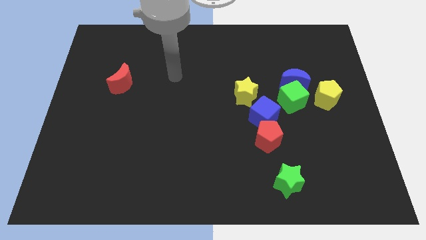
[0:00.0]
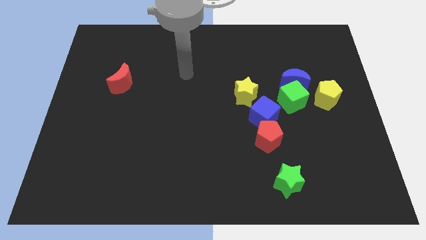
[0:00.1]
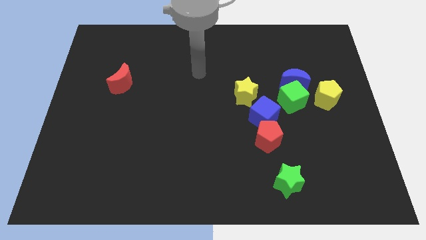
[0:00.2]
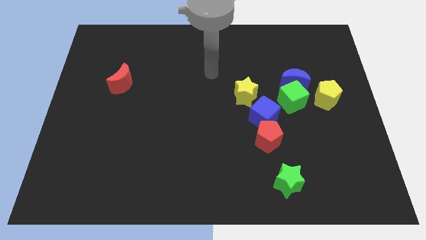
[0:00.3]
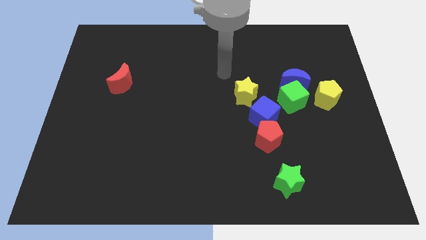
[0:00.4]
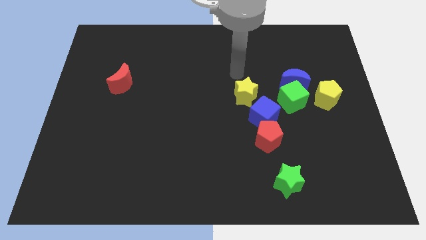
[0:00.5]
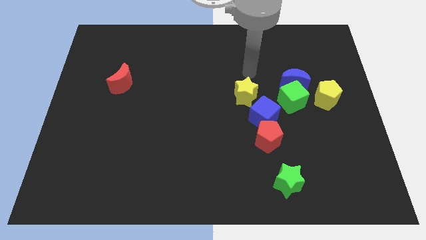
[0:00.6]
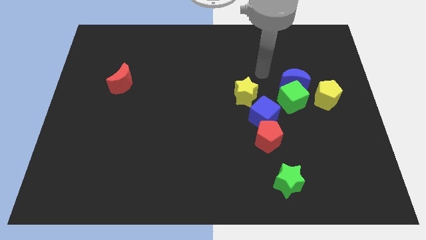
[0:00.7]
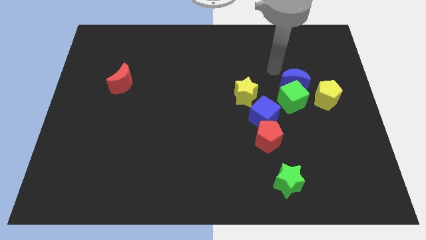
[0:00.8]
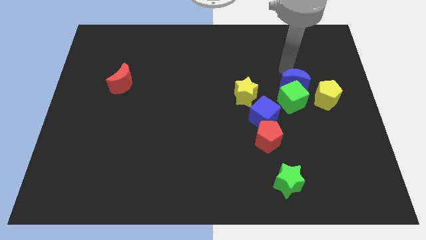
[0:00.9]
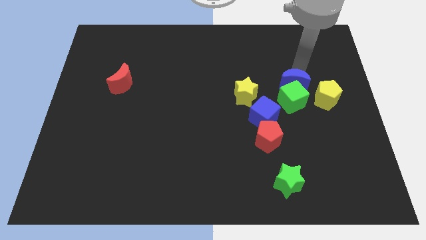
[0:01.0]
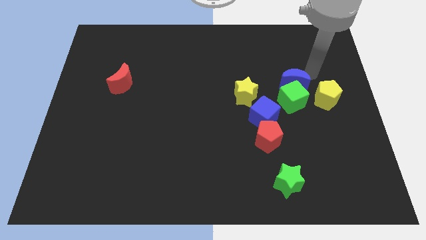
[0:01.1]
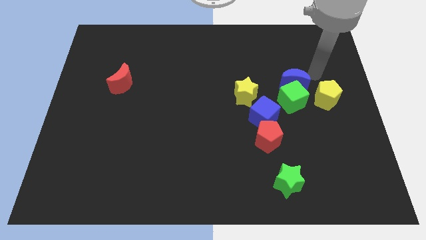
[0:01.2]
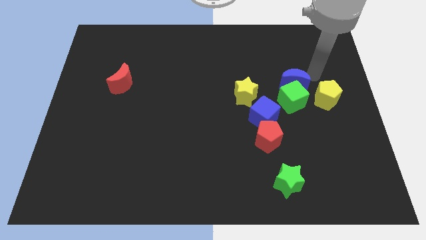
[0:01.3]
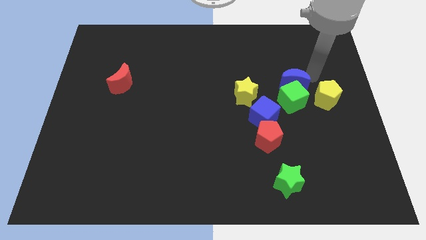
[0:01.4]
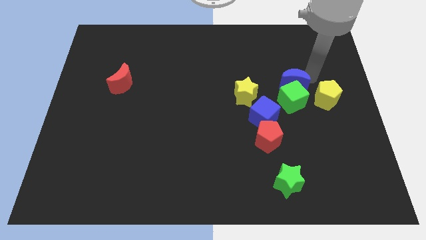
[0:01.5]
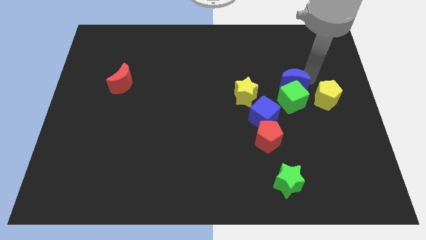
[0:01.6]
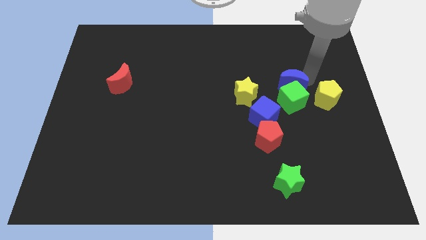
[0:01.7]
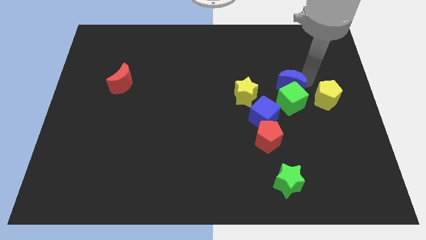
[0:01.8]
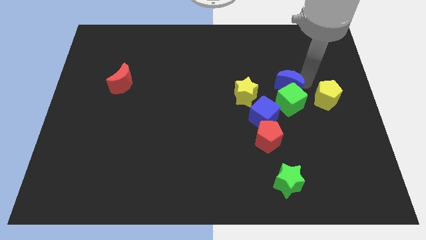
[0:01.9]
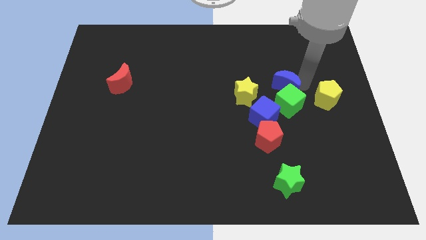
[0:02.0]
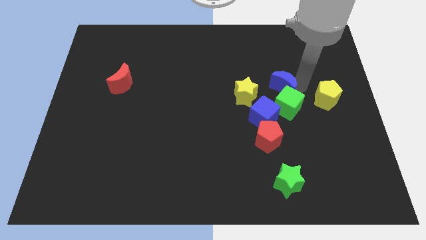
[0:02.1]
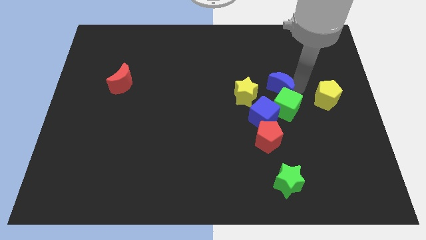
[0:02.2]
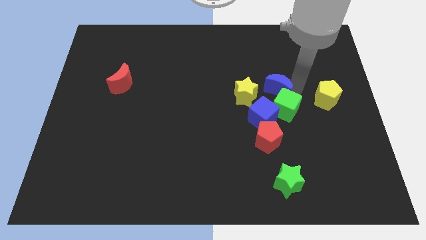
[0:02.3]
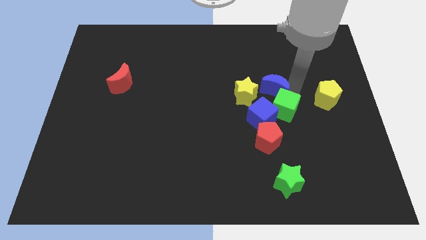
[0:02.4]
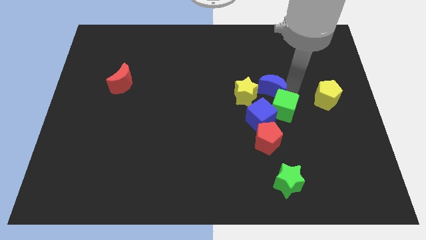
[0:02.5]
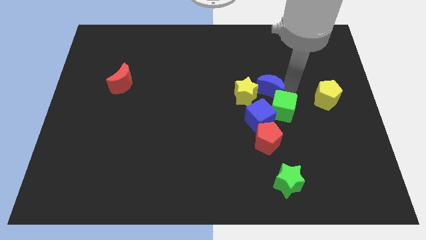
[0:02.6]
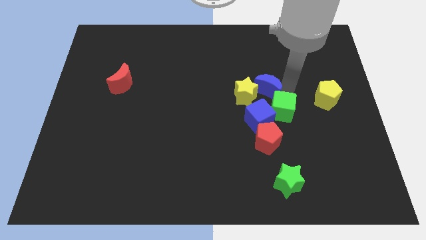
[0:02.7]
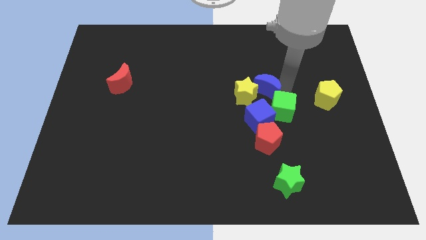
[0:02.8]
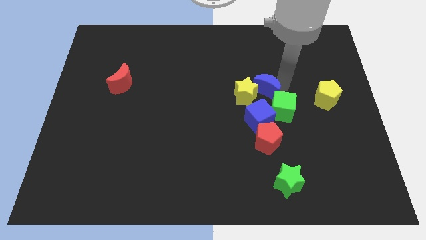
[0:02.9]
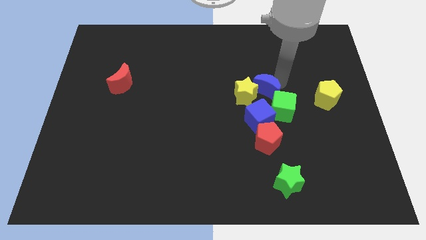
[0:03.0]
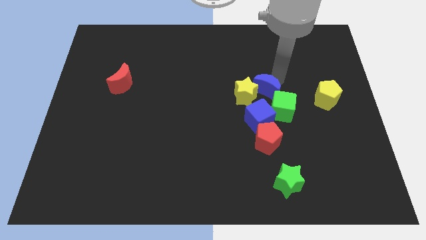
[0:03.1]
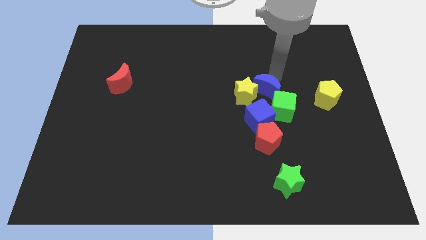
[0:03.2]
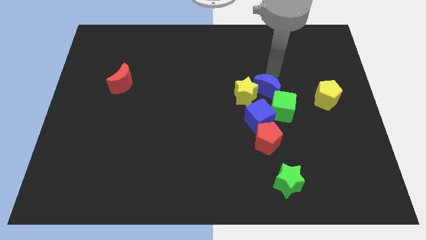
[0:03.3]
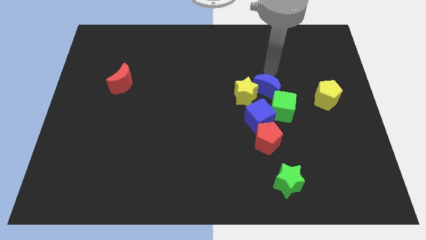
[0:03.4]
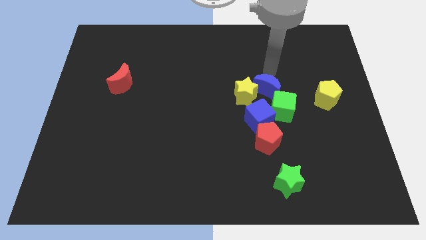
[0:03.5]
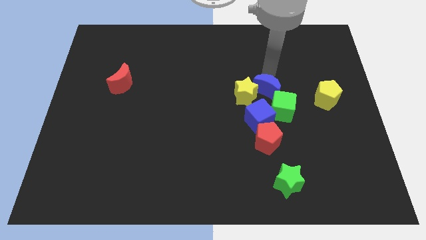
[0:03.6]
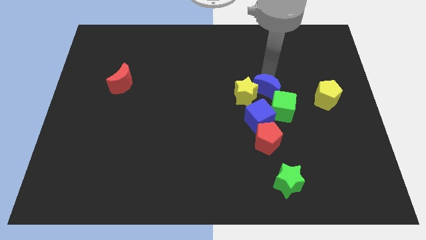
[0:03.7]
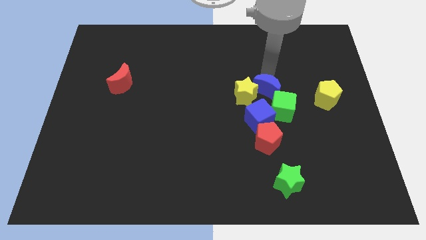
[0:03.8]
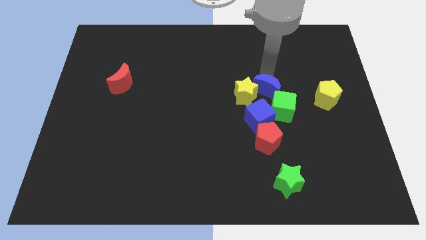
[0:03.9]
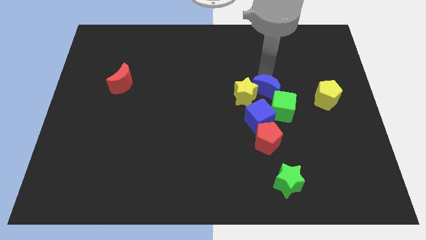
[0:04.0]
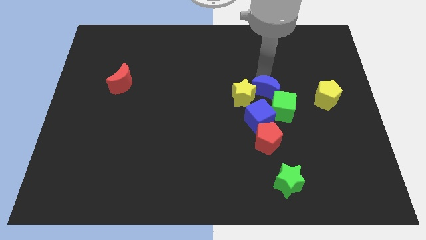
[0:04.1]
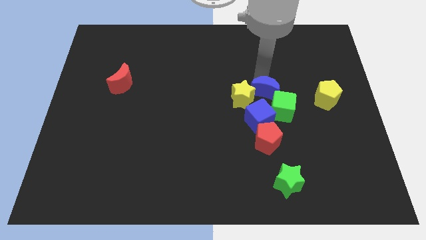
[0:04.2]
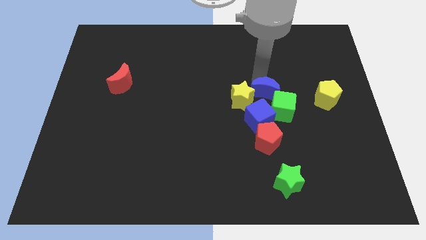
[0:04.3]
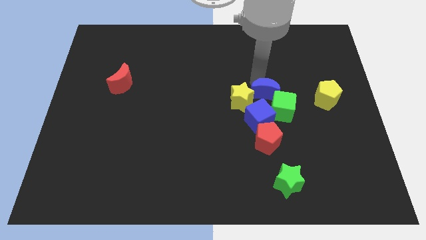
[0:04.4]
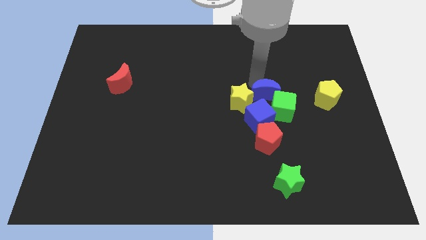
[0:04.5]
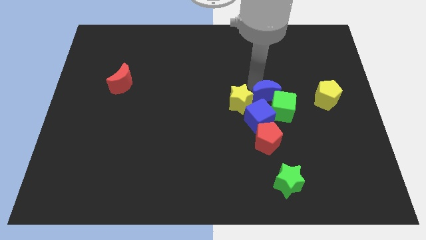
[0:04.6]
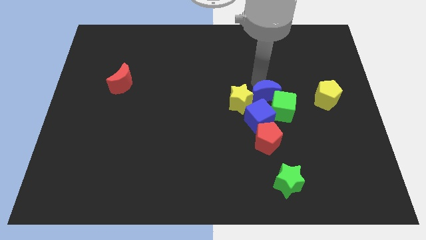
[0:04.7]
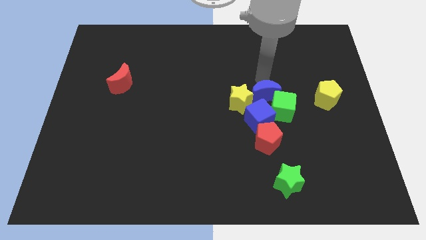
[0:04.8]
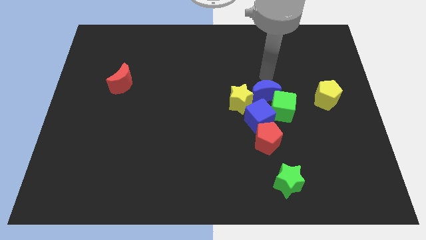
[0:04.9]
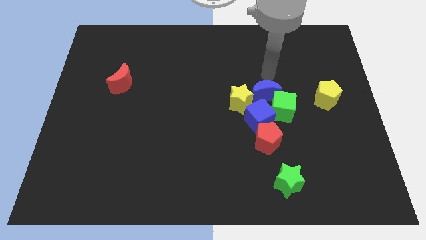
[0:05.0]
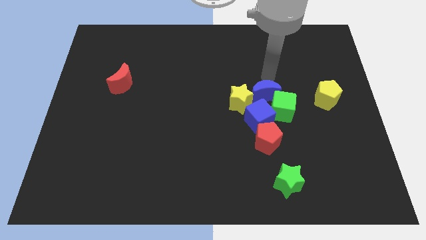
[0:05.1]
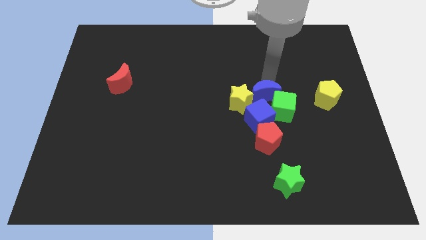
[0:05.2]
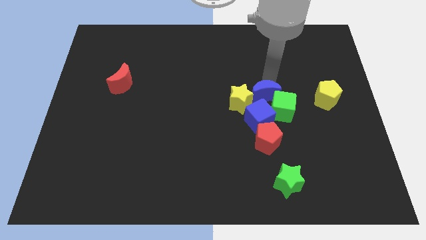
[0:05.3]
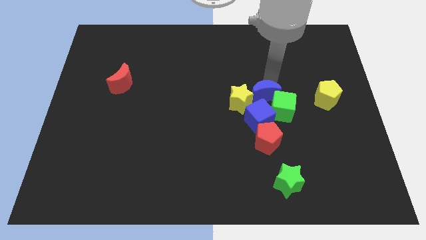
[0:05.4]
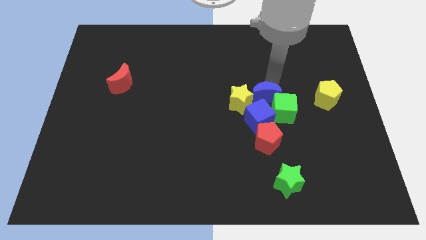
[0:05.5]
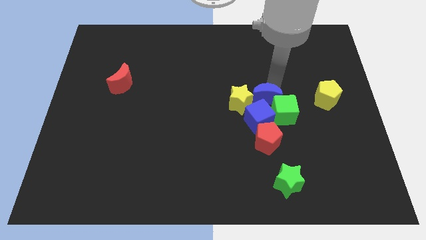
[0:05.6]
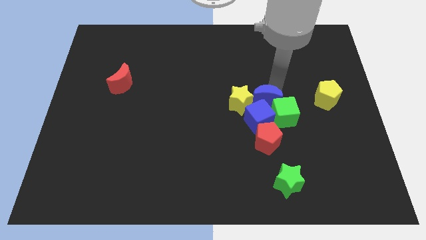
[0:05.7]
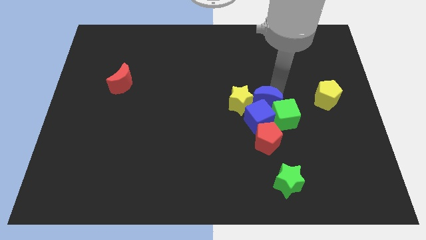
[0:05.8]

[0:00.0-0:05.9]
move the blue moon towards the blue cube

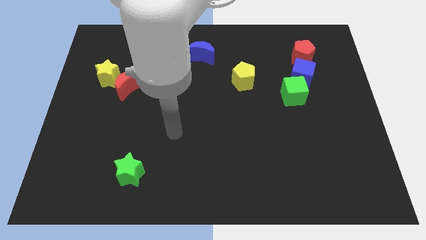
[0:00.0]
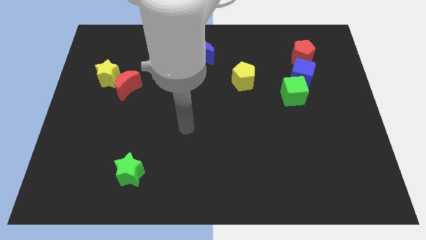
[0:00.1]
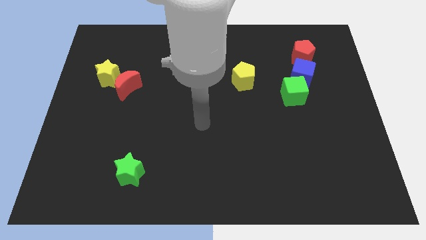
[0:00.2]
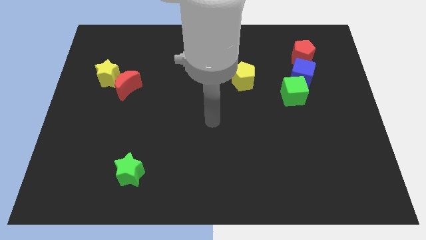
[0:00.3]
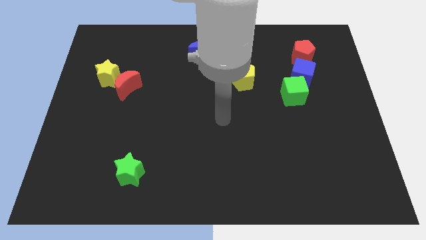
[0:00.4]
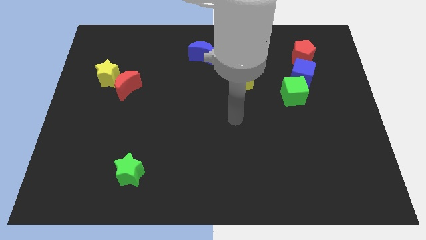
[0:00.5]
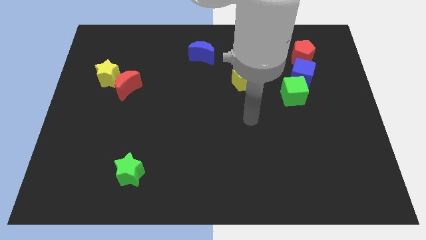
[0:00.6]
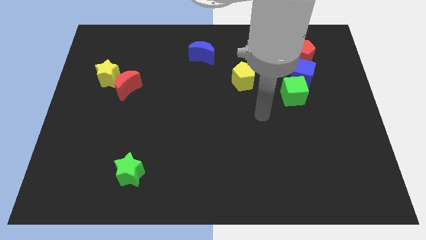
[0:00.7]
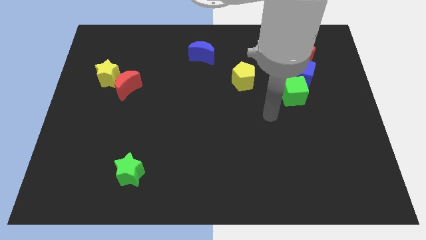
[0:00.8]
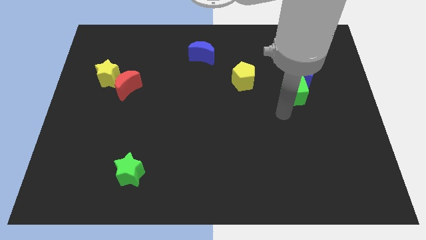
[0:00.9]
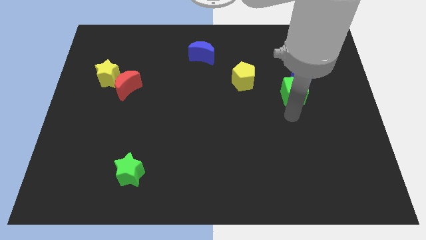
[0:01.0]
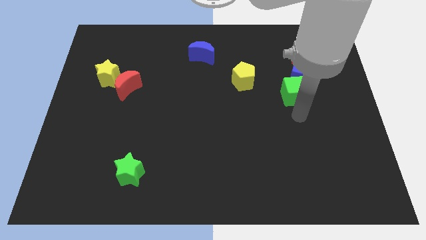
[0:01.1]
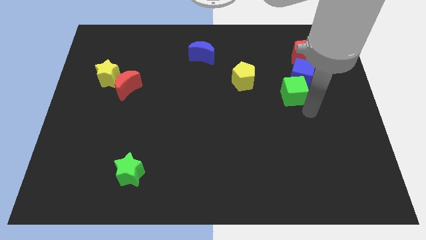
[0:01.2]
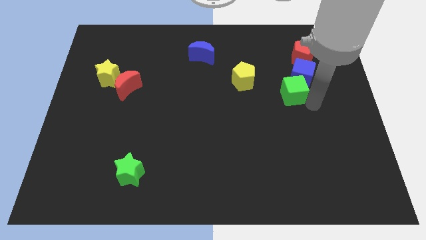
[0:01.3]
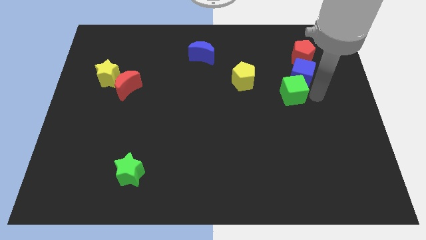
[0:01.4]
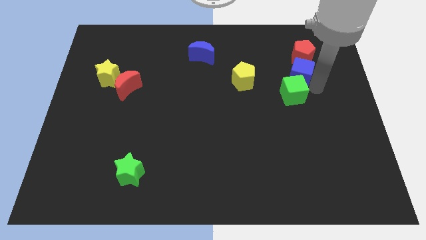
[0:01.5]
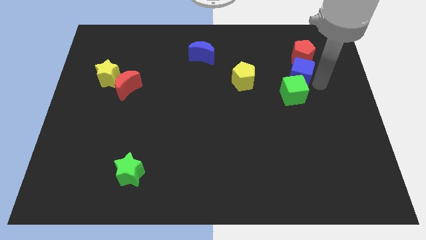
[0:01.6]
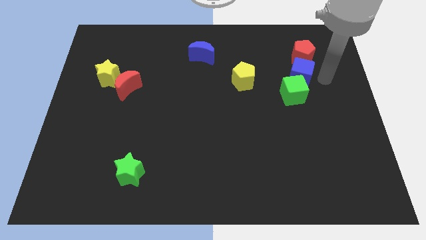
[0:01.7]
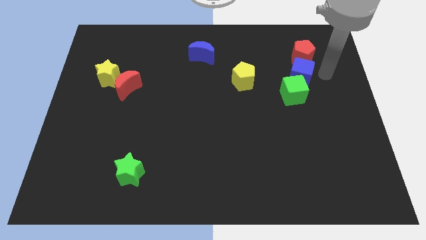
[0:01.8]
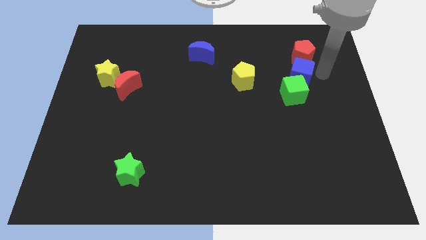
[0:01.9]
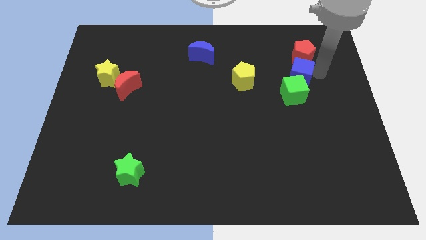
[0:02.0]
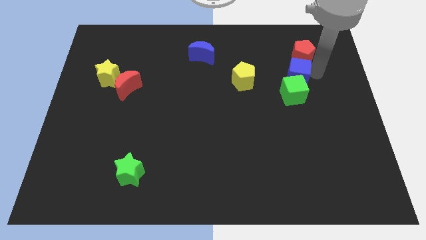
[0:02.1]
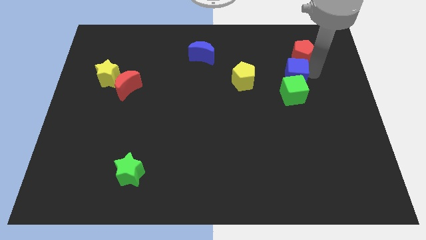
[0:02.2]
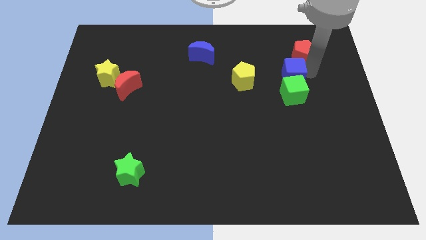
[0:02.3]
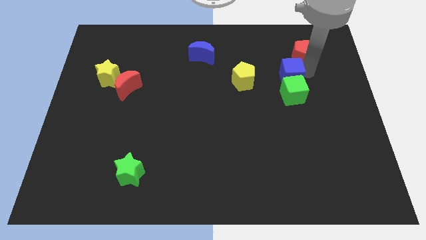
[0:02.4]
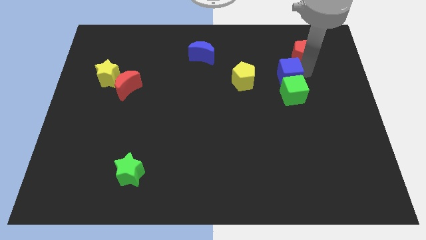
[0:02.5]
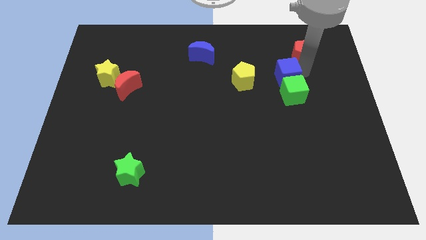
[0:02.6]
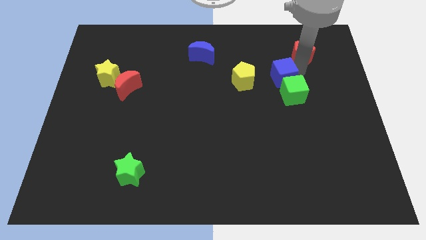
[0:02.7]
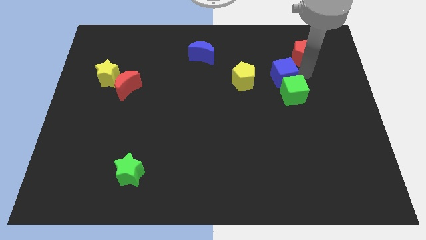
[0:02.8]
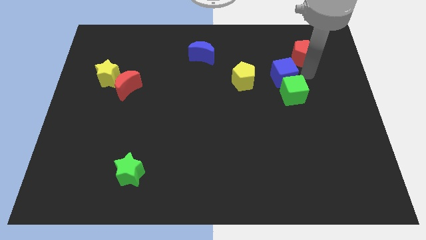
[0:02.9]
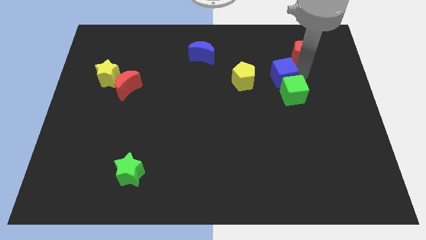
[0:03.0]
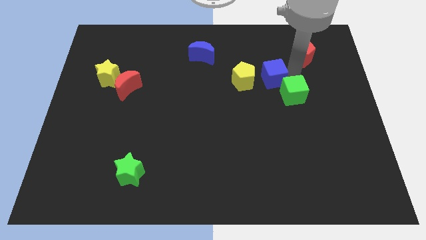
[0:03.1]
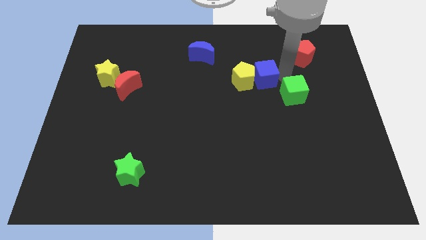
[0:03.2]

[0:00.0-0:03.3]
push the blue cube close to the yellow pentagon
